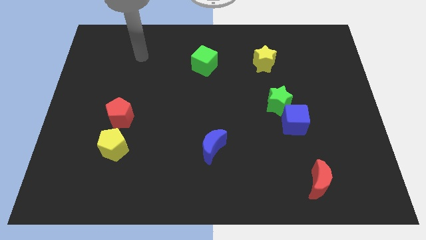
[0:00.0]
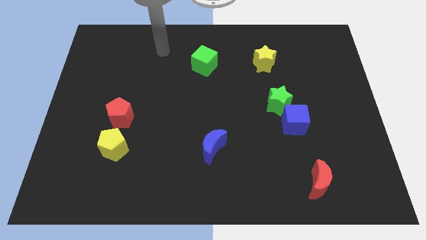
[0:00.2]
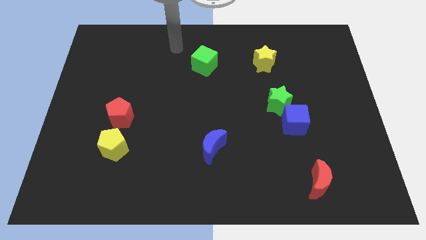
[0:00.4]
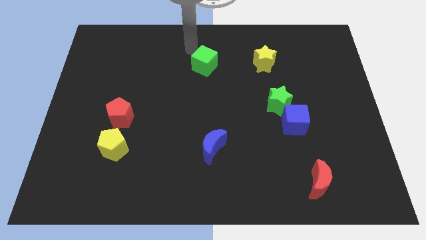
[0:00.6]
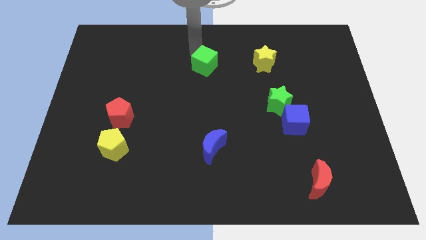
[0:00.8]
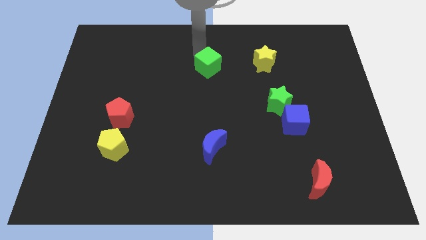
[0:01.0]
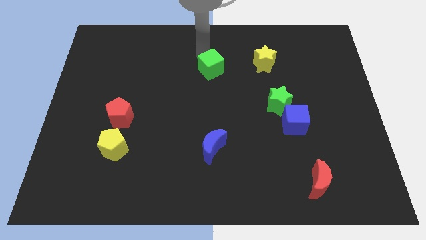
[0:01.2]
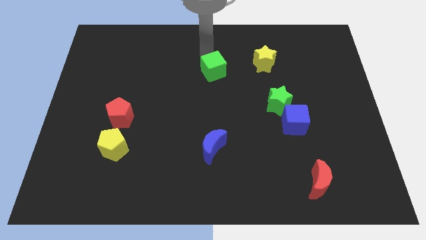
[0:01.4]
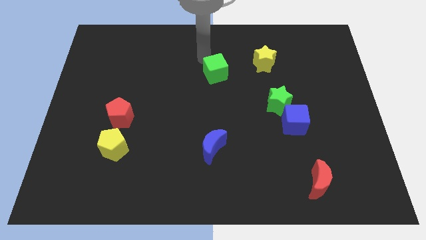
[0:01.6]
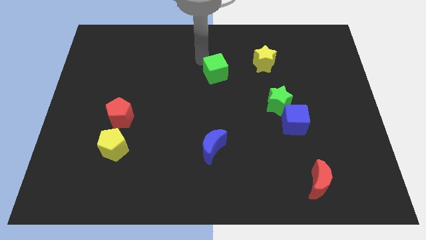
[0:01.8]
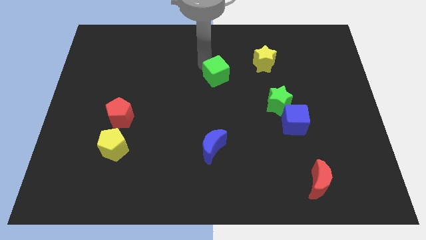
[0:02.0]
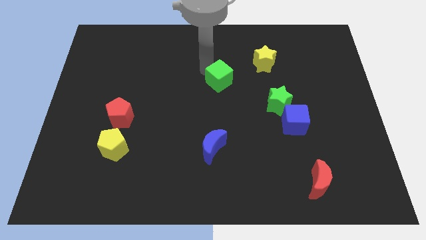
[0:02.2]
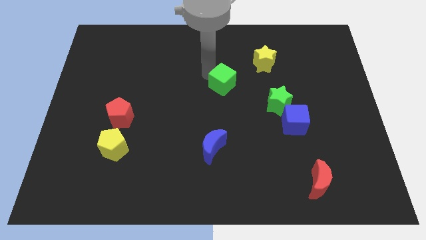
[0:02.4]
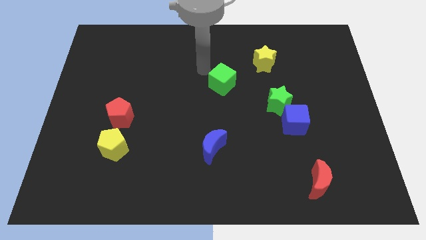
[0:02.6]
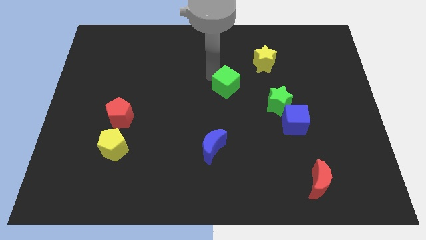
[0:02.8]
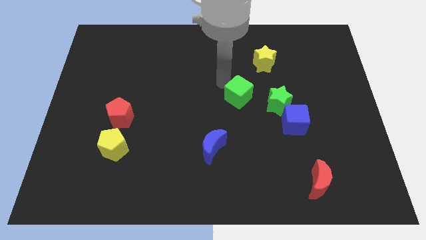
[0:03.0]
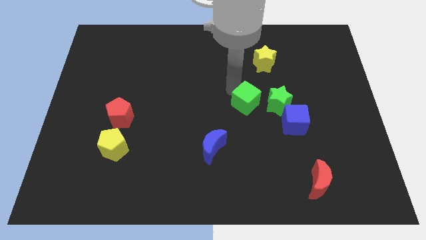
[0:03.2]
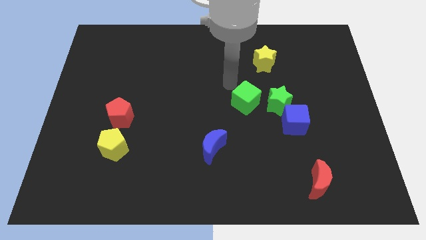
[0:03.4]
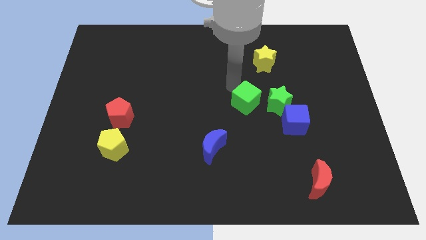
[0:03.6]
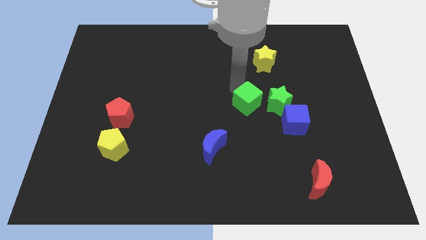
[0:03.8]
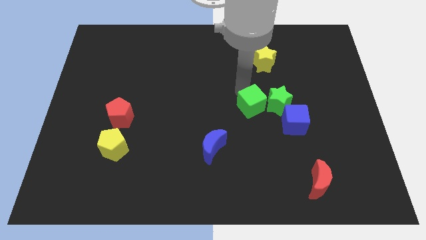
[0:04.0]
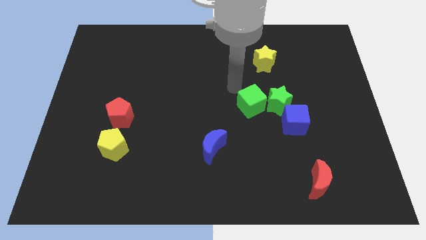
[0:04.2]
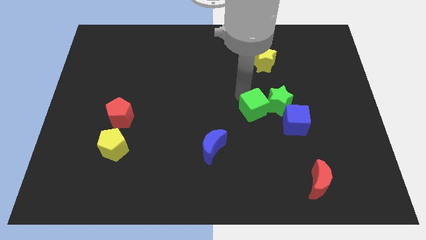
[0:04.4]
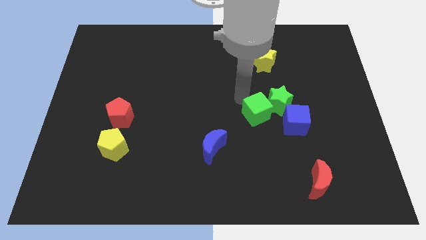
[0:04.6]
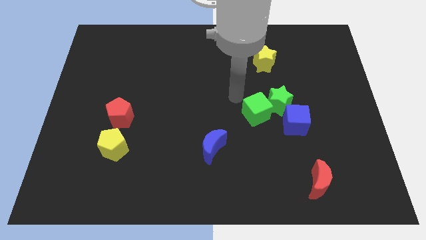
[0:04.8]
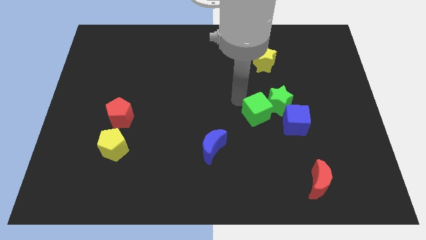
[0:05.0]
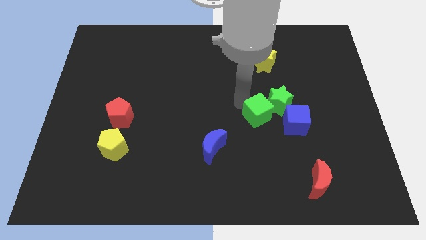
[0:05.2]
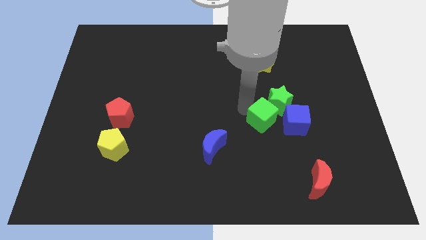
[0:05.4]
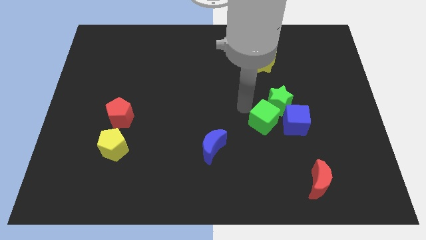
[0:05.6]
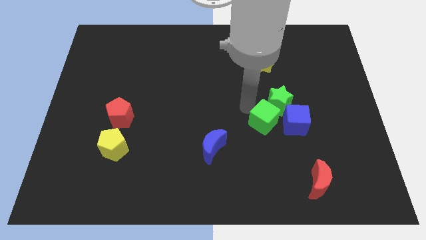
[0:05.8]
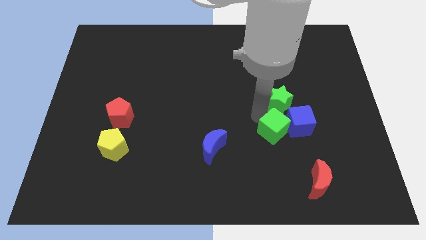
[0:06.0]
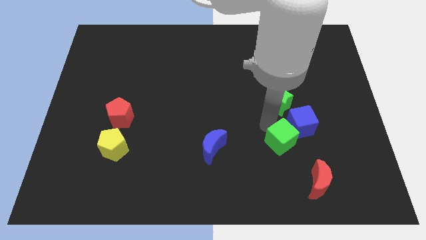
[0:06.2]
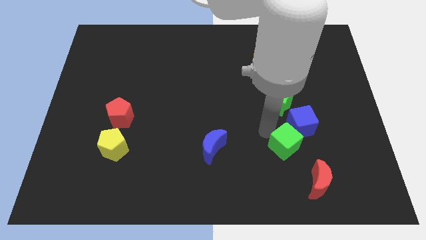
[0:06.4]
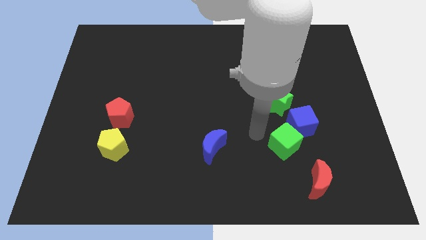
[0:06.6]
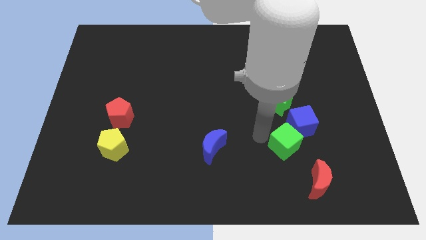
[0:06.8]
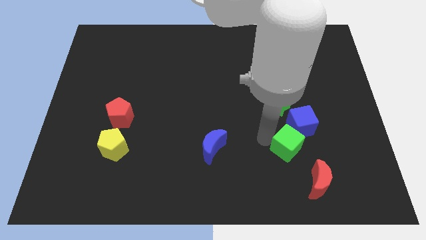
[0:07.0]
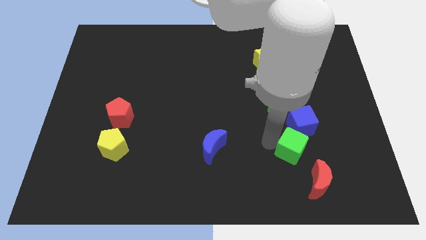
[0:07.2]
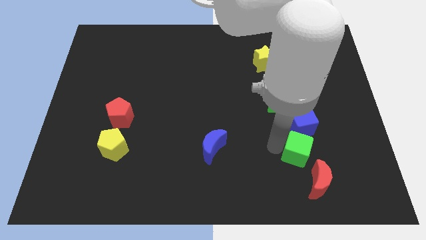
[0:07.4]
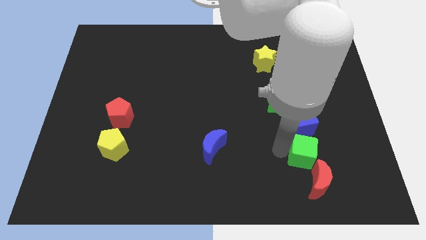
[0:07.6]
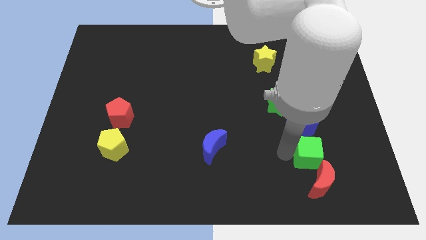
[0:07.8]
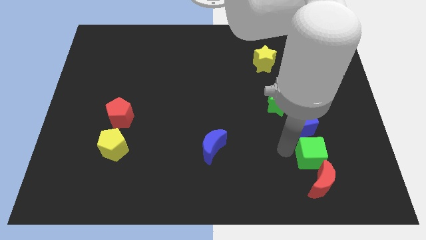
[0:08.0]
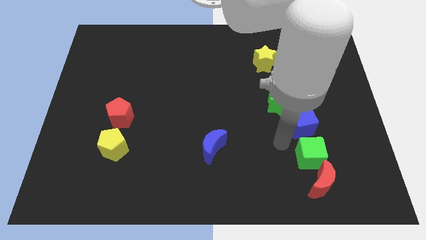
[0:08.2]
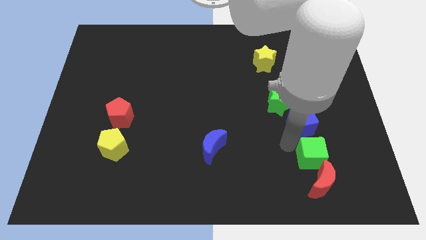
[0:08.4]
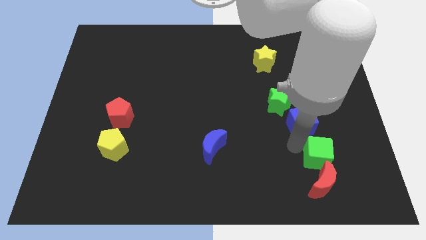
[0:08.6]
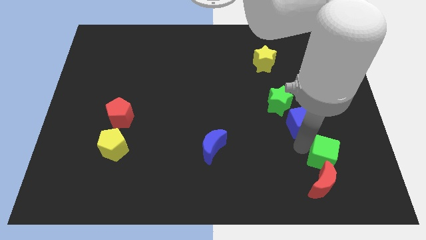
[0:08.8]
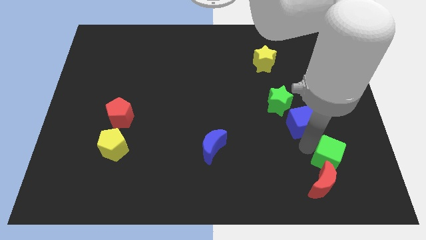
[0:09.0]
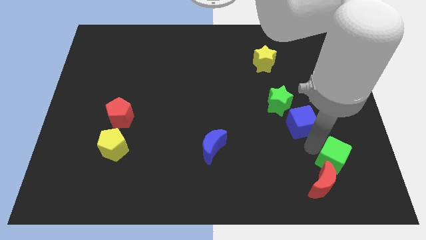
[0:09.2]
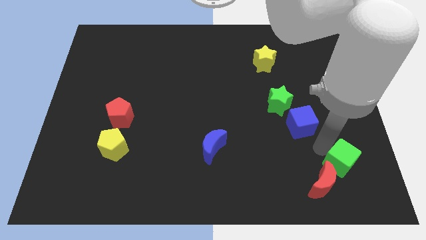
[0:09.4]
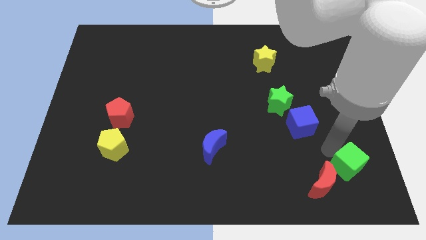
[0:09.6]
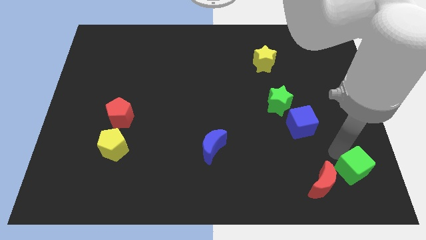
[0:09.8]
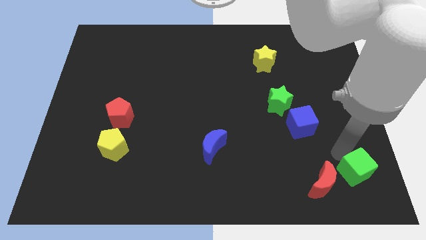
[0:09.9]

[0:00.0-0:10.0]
put the green cube to the bottom right

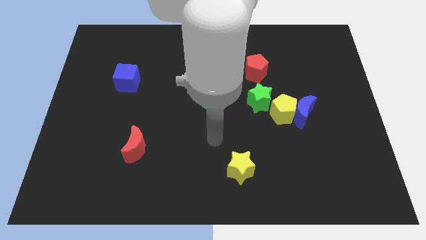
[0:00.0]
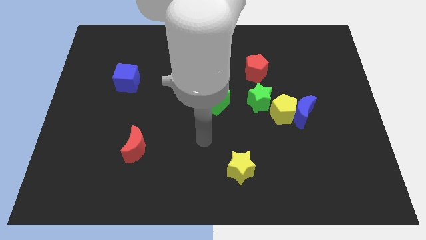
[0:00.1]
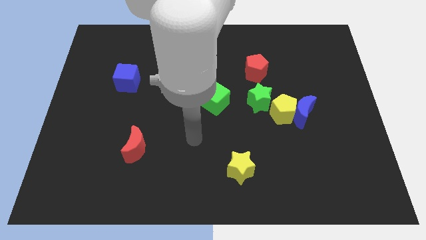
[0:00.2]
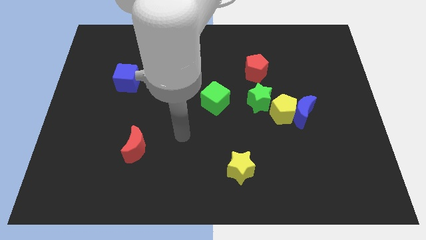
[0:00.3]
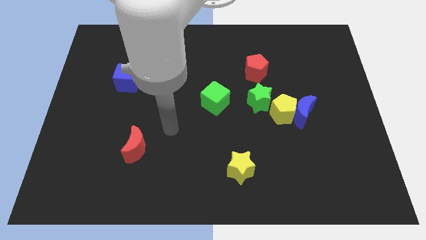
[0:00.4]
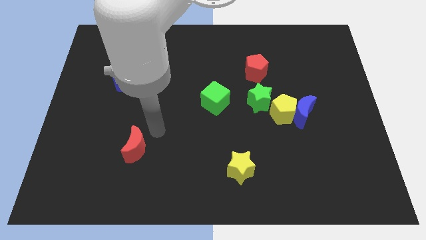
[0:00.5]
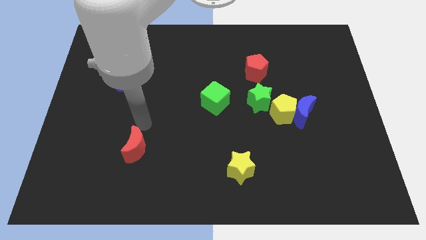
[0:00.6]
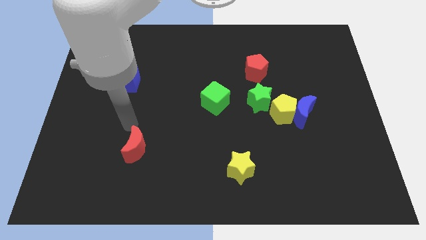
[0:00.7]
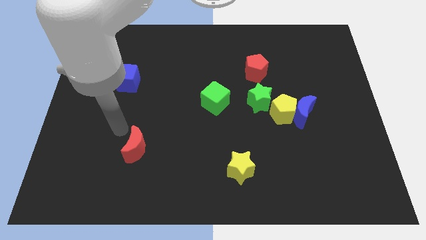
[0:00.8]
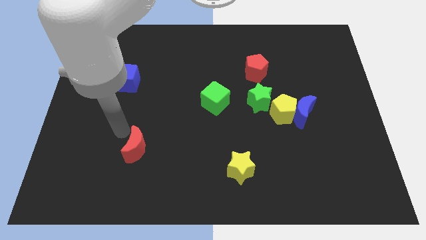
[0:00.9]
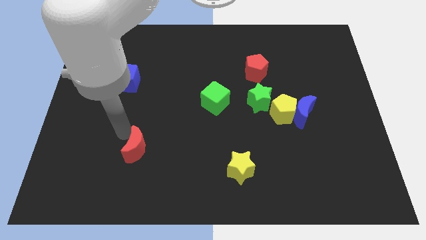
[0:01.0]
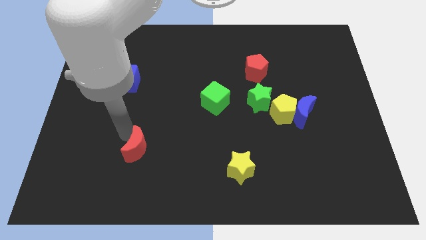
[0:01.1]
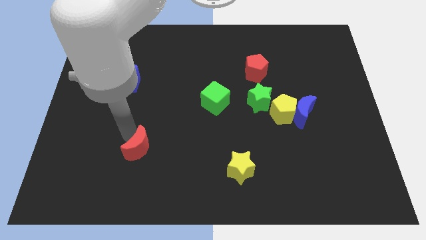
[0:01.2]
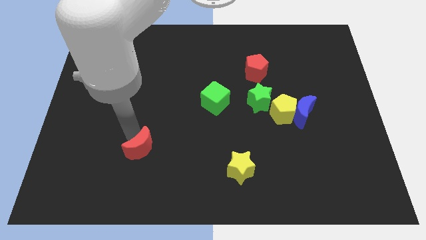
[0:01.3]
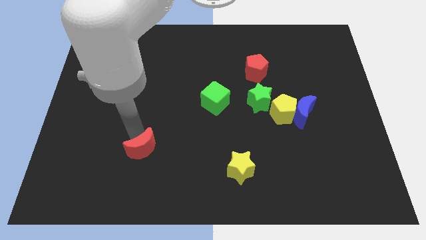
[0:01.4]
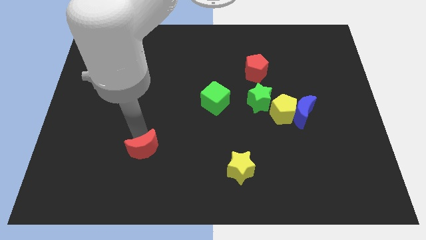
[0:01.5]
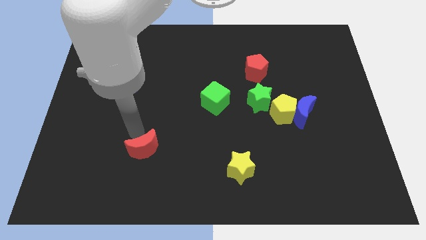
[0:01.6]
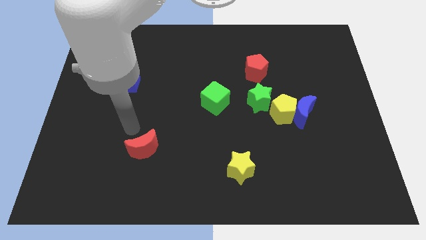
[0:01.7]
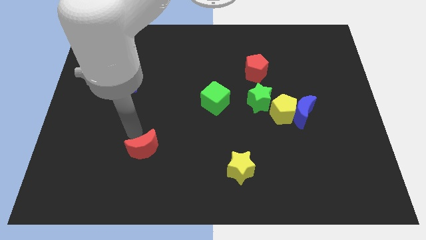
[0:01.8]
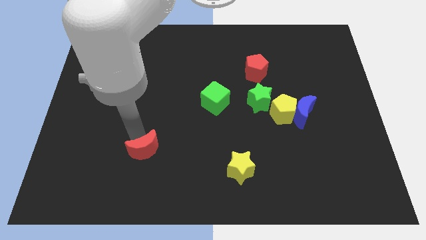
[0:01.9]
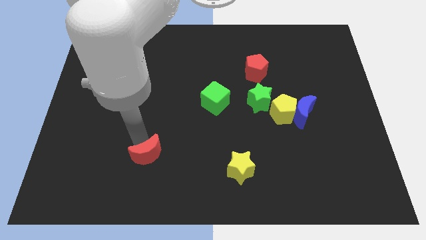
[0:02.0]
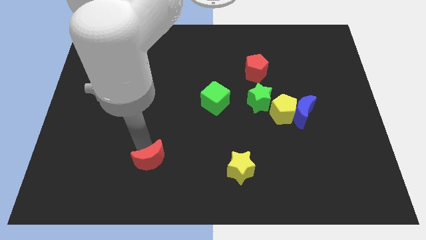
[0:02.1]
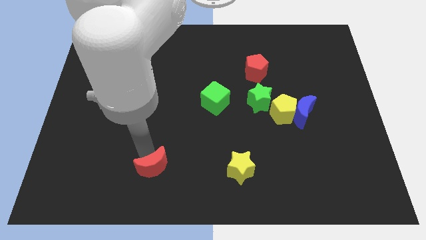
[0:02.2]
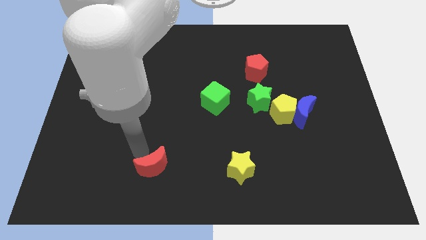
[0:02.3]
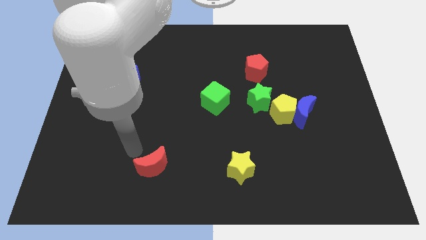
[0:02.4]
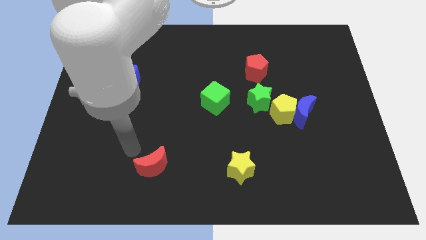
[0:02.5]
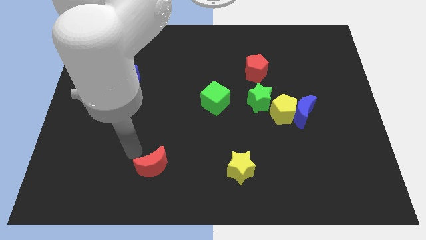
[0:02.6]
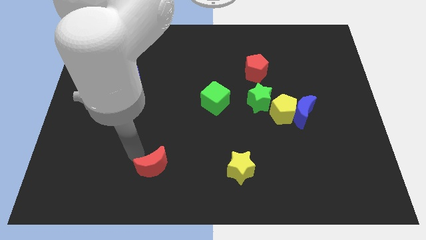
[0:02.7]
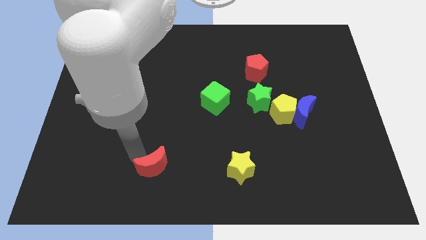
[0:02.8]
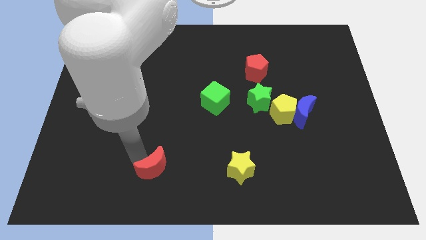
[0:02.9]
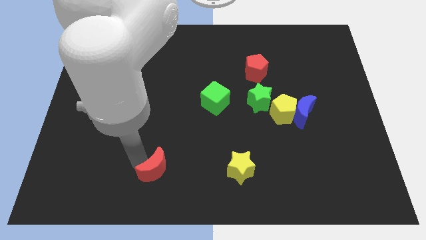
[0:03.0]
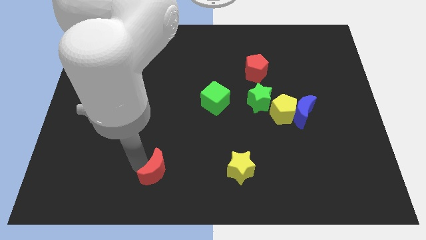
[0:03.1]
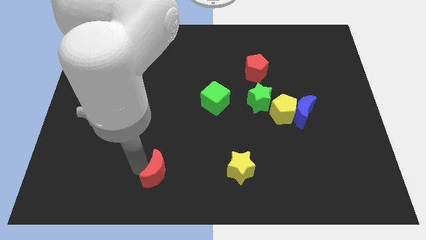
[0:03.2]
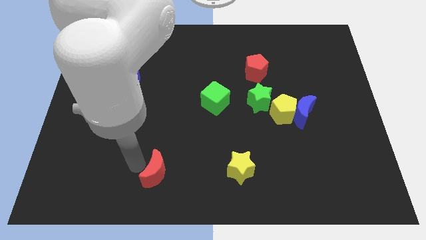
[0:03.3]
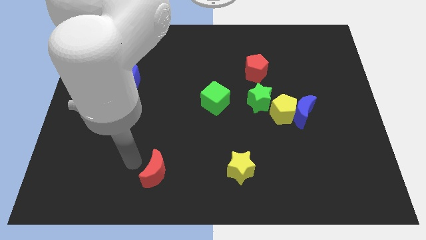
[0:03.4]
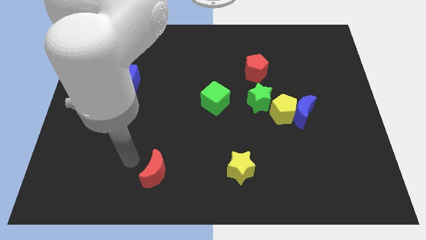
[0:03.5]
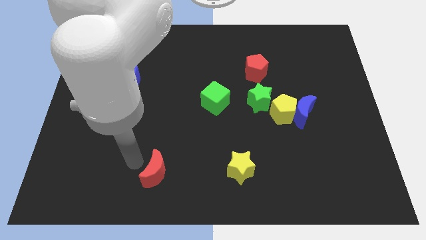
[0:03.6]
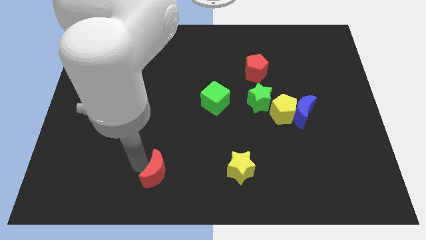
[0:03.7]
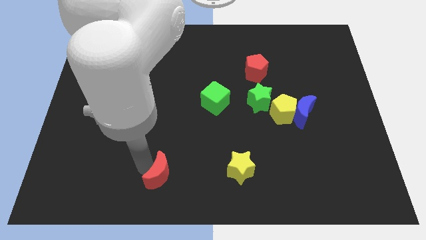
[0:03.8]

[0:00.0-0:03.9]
put the red moon to the bottom
